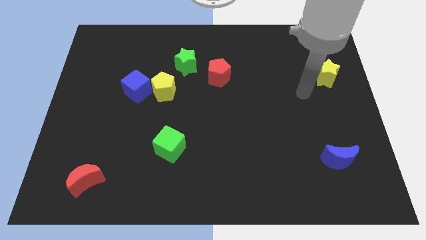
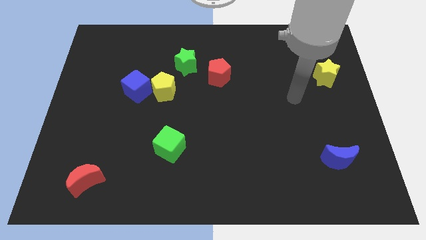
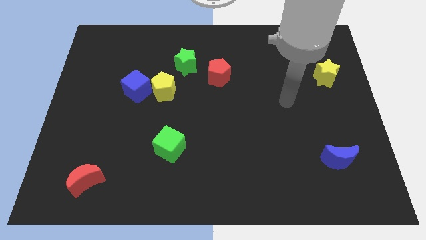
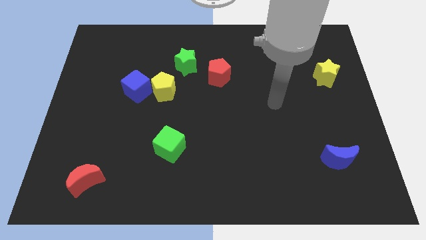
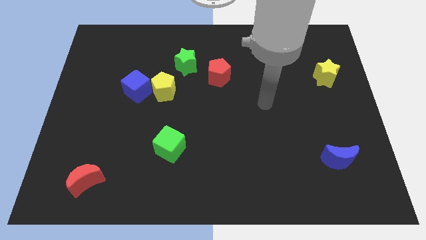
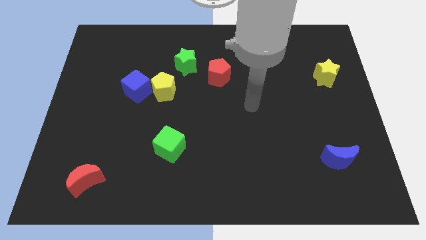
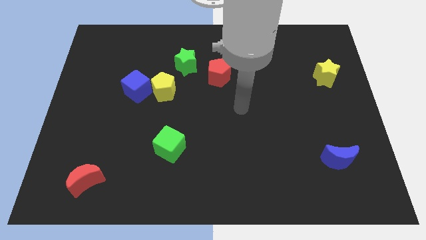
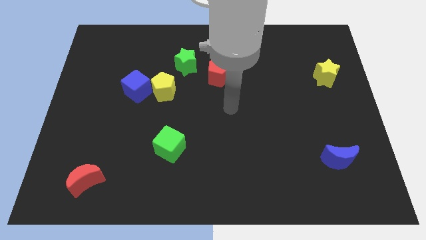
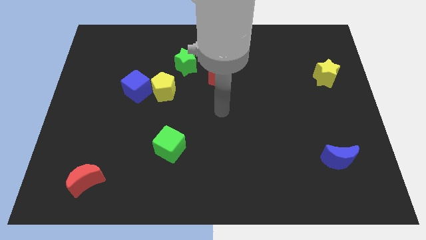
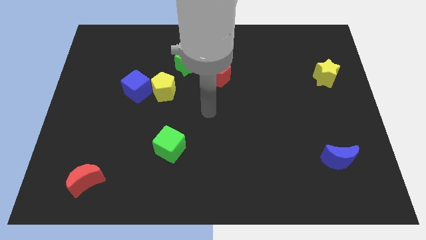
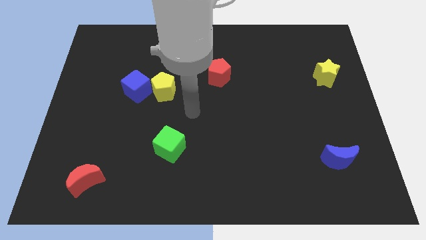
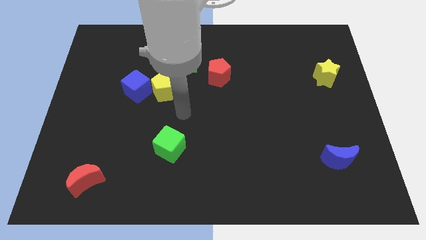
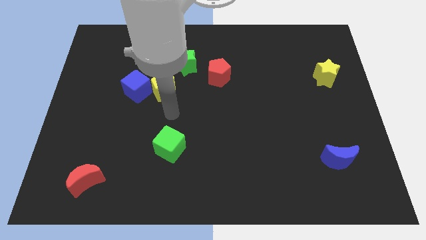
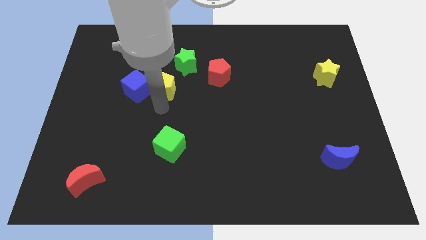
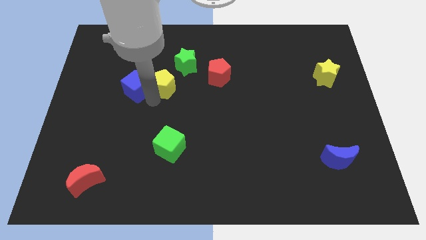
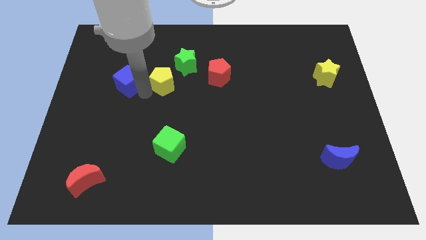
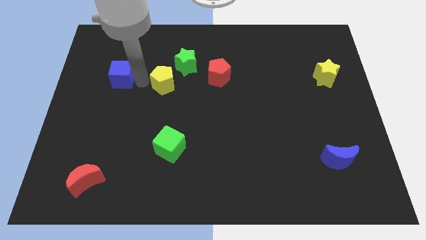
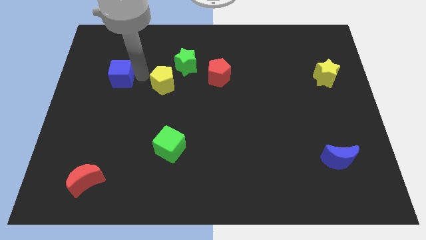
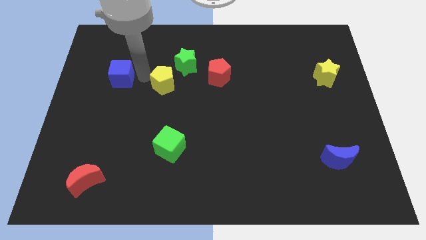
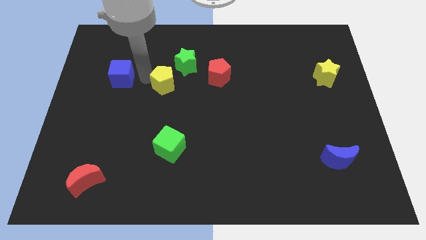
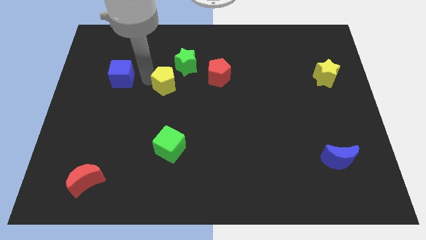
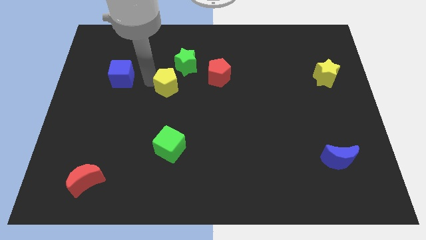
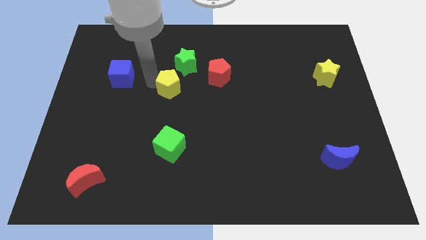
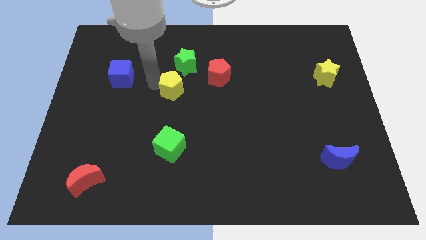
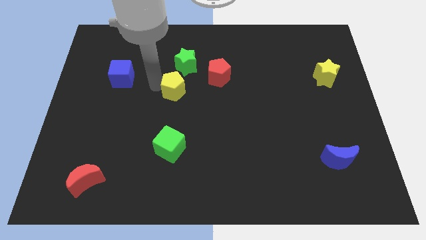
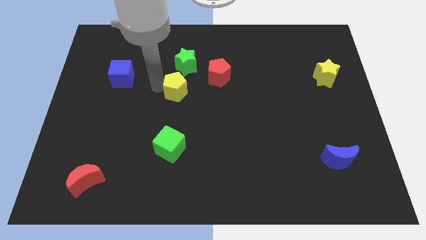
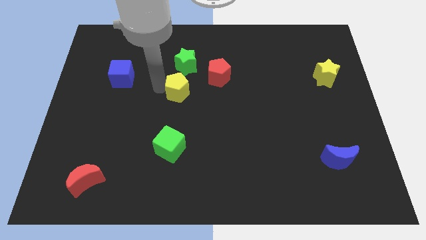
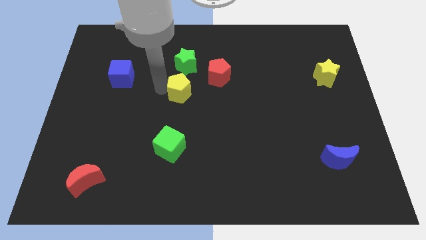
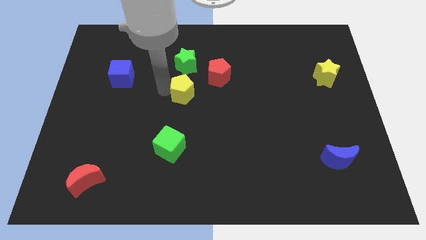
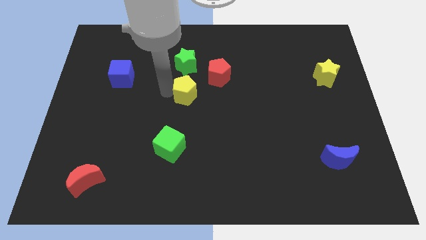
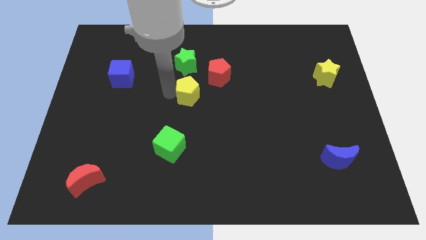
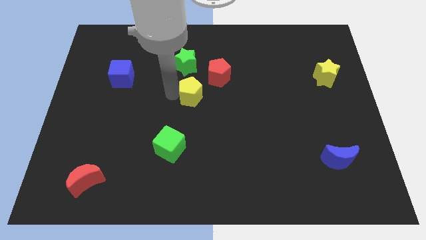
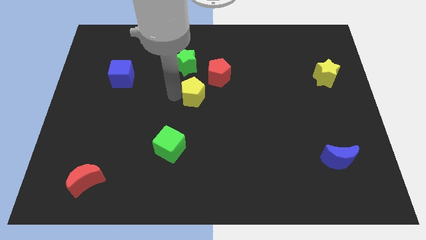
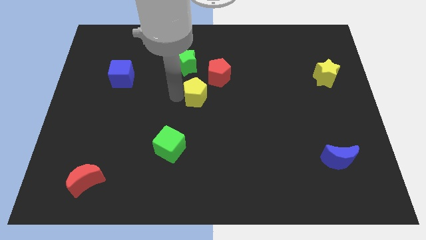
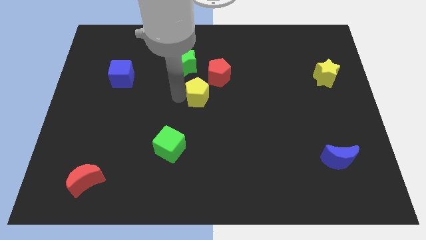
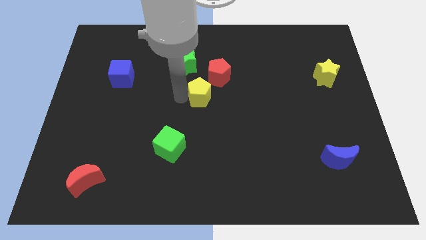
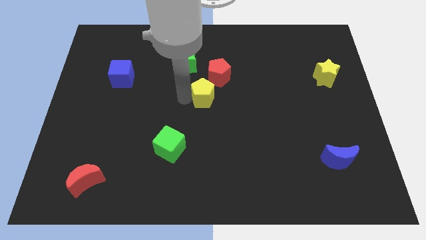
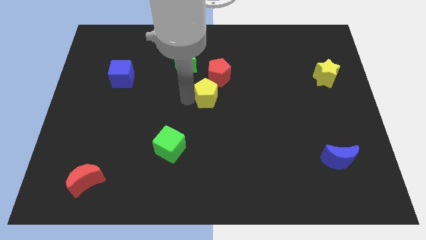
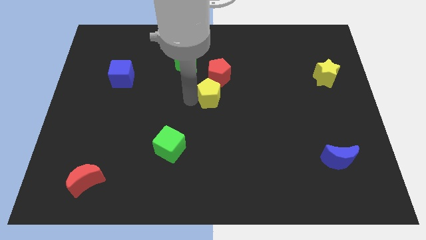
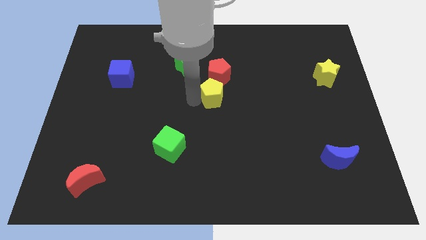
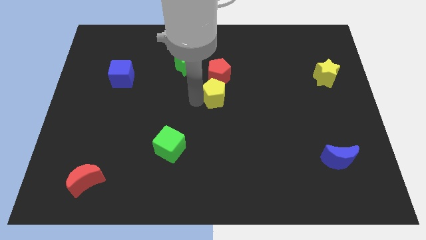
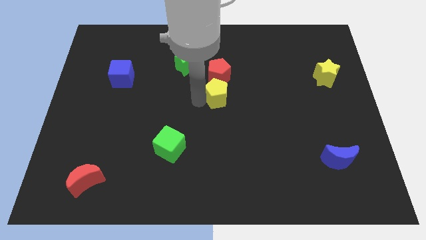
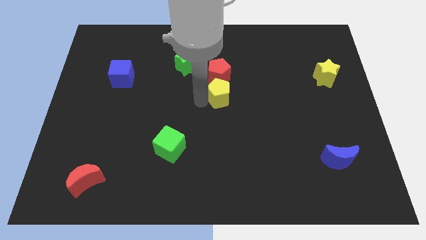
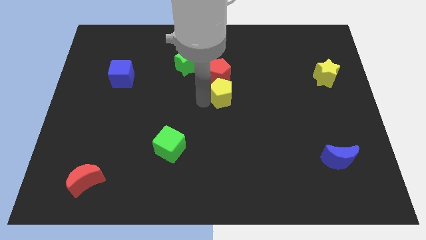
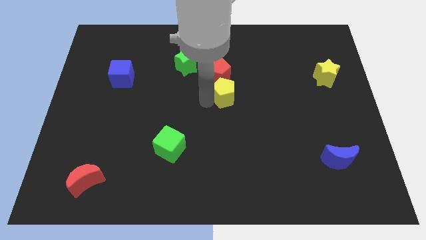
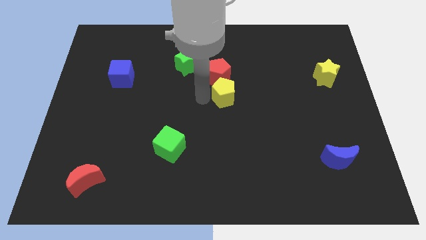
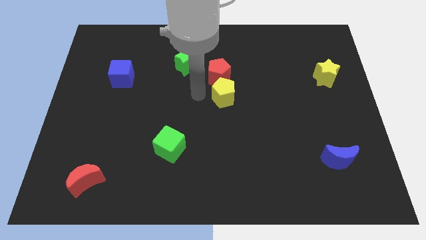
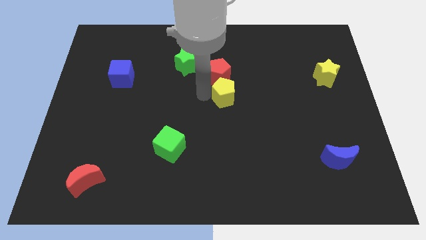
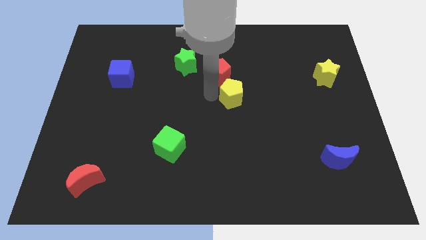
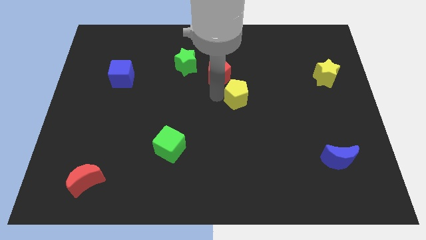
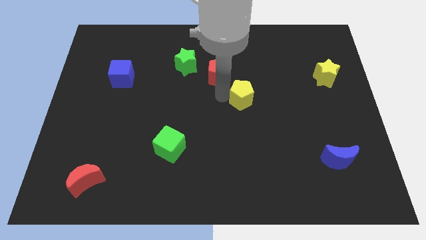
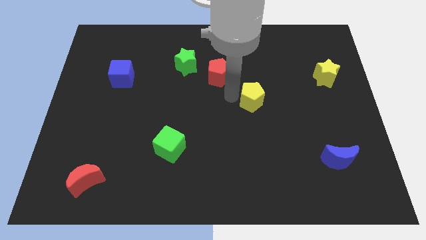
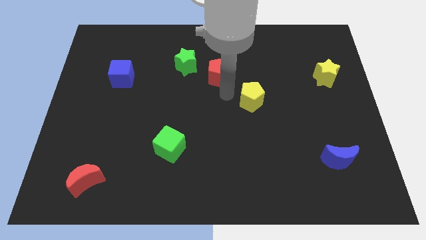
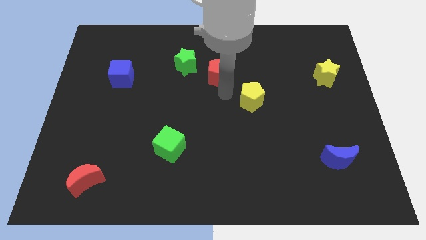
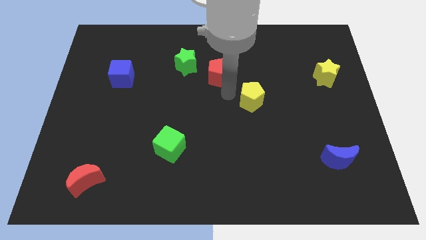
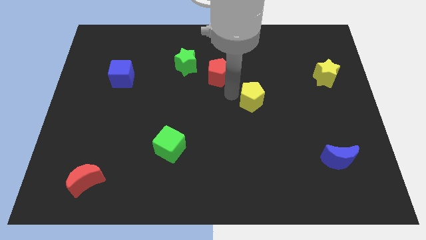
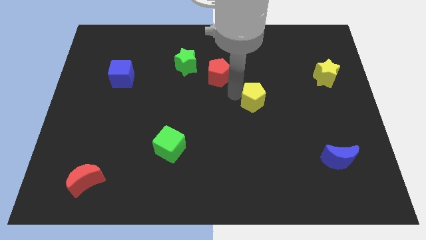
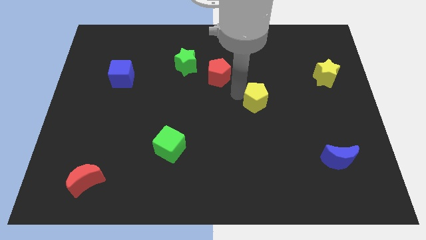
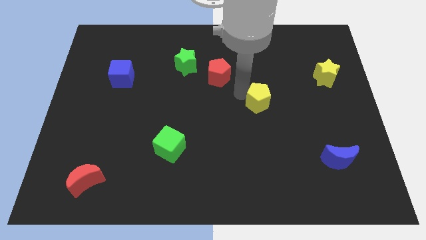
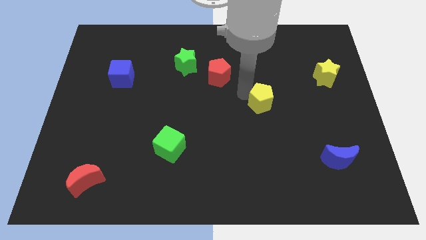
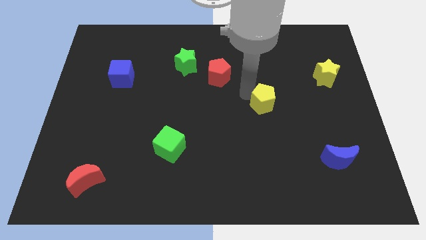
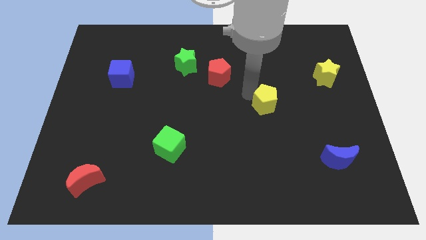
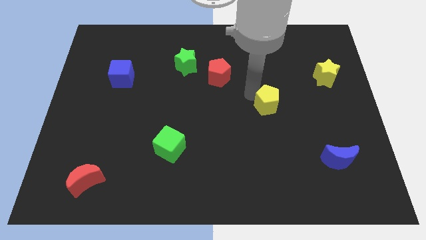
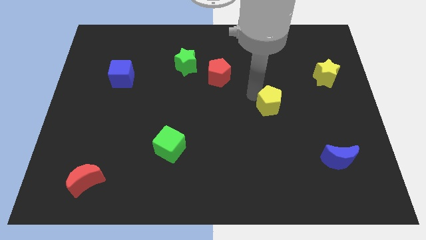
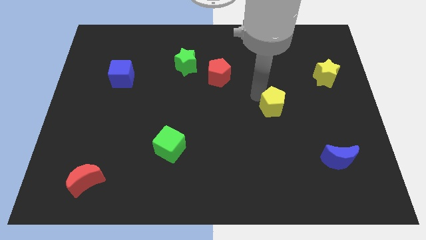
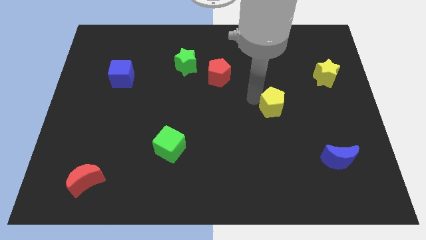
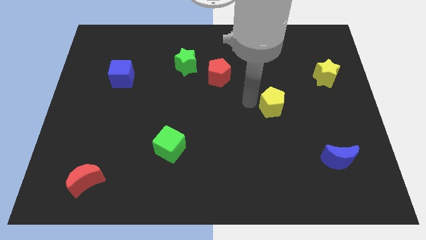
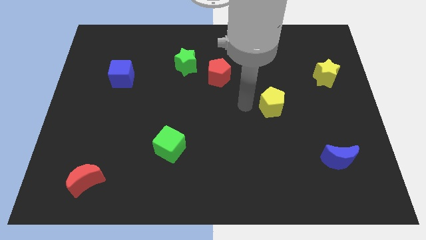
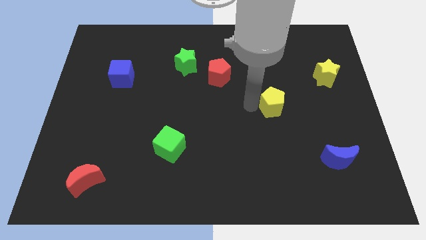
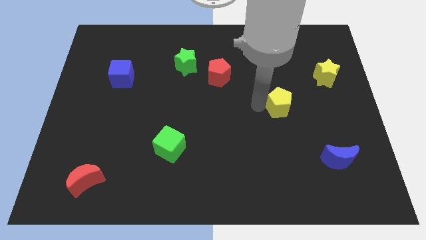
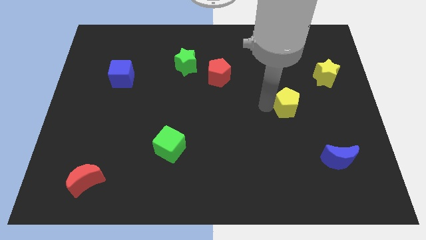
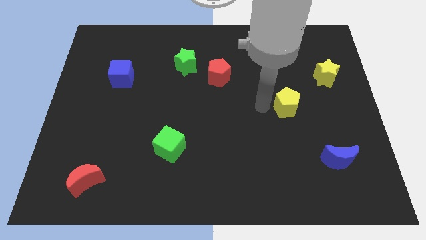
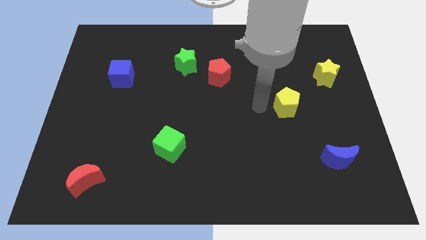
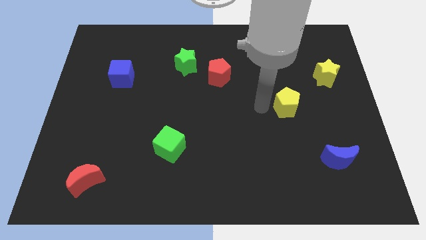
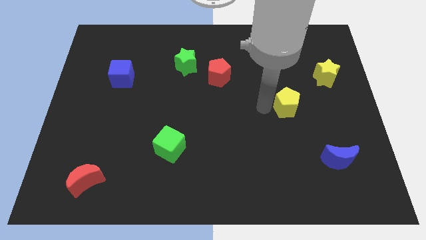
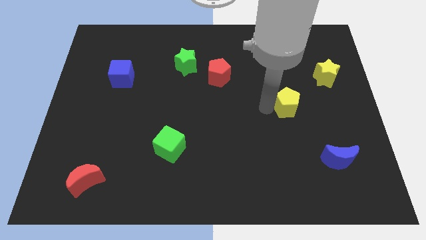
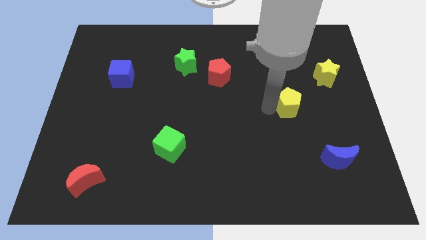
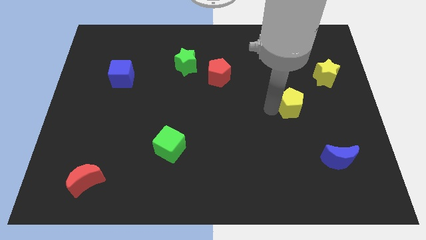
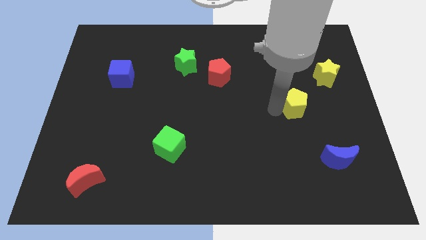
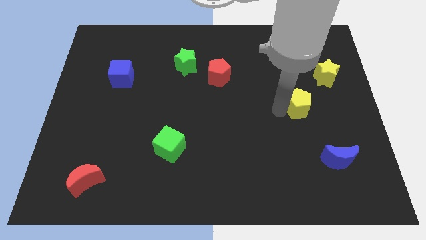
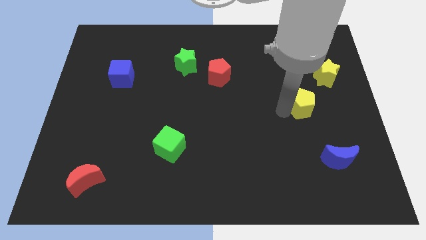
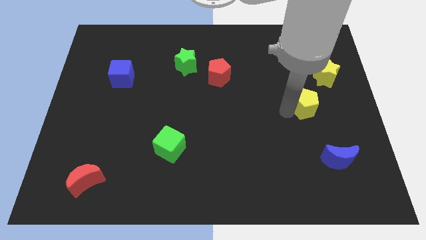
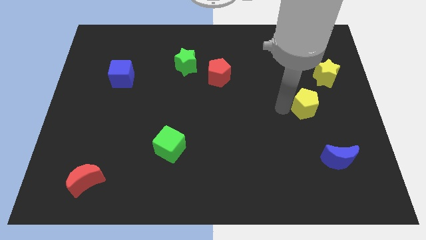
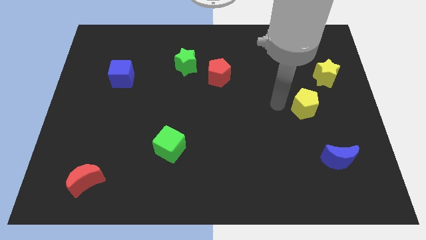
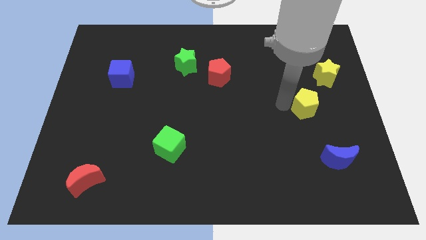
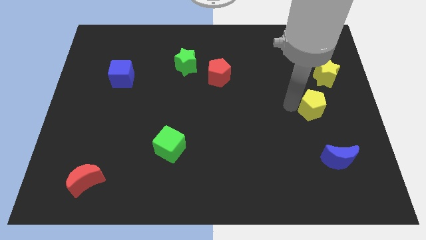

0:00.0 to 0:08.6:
move the yellow pentagon to the bottom side of the yellow star
